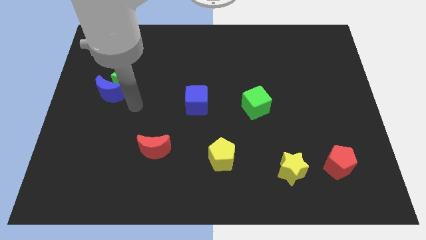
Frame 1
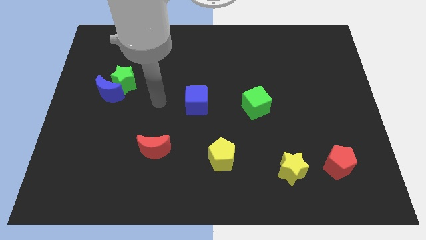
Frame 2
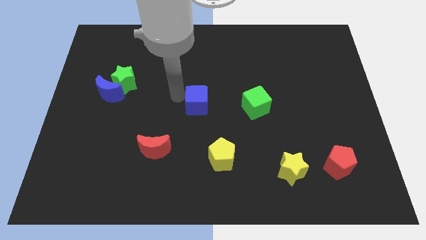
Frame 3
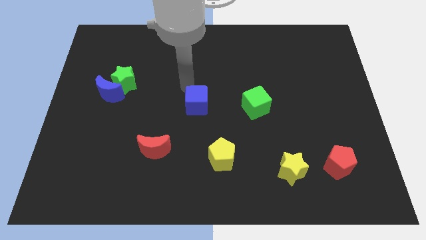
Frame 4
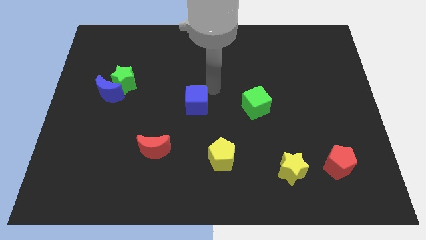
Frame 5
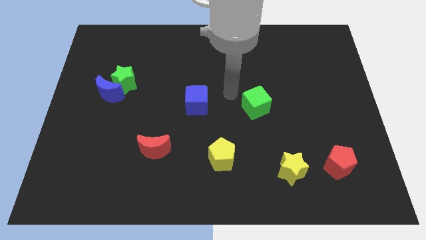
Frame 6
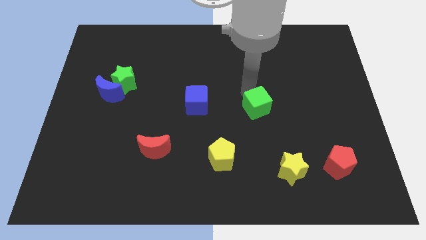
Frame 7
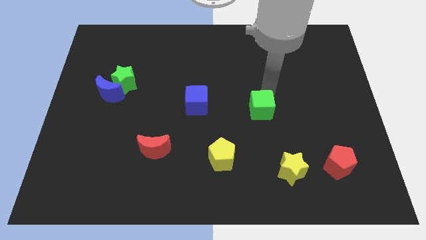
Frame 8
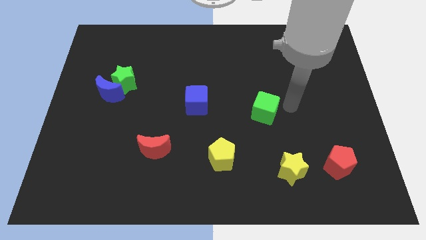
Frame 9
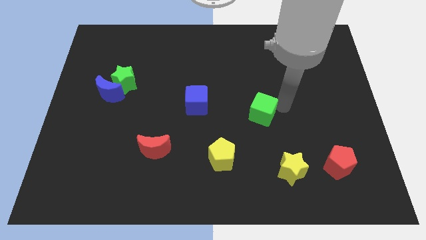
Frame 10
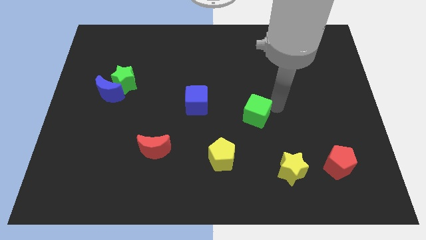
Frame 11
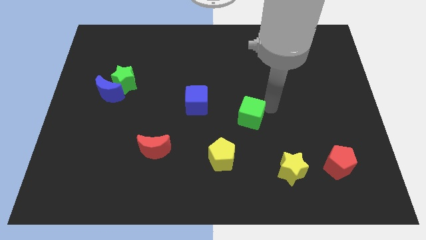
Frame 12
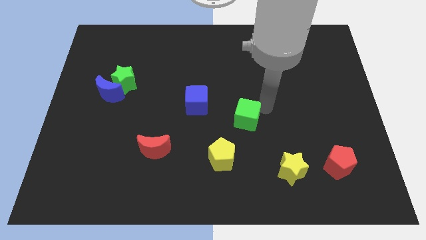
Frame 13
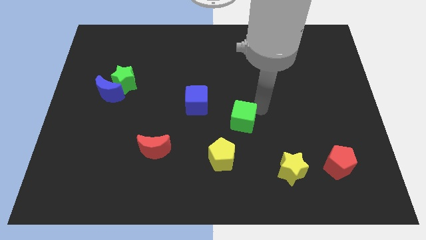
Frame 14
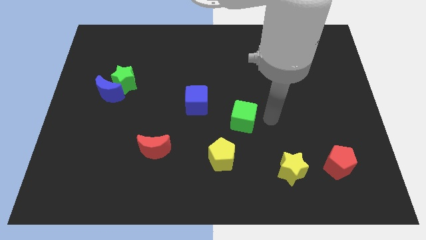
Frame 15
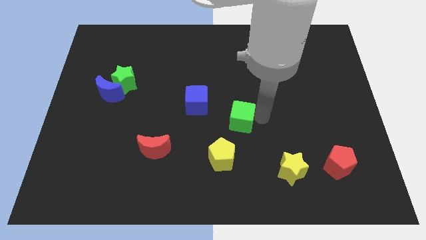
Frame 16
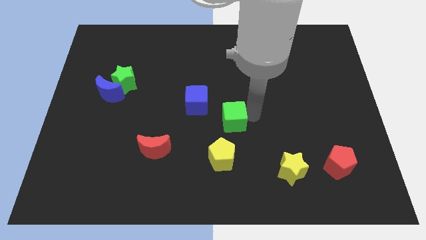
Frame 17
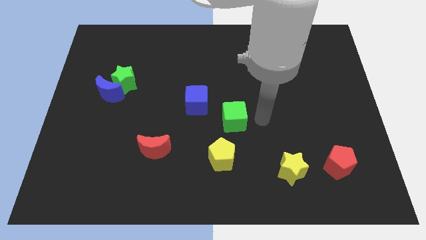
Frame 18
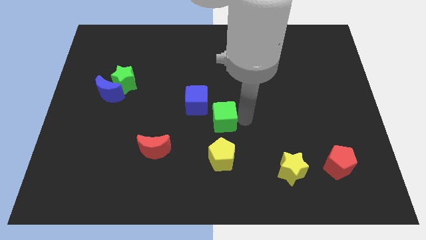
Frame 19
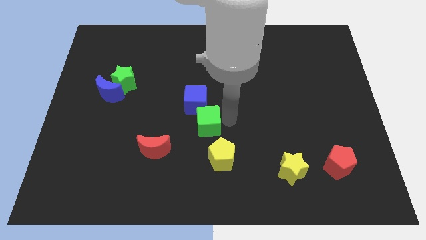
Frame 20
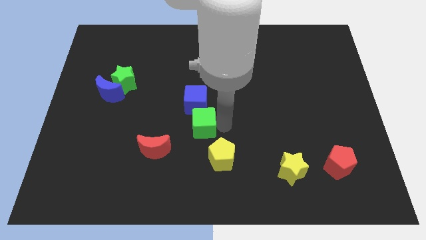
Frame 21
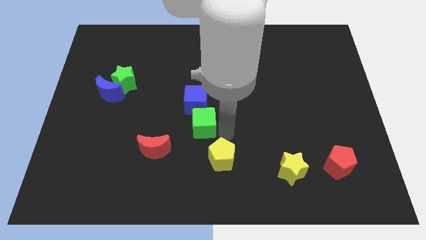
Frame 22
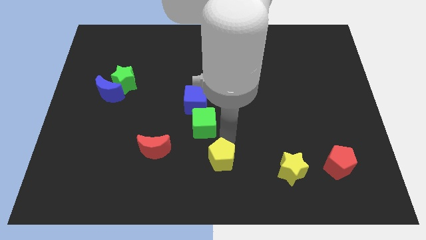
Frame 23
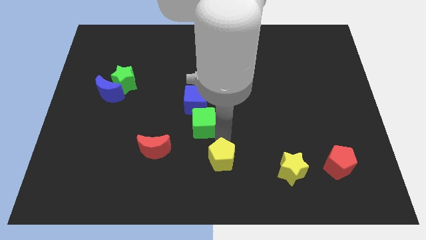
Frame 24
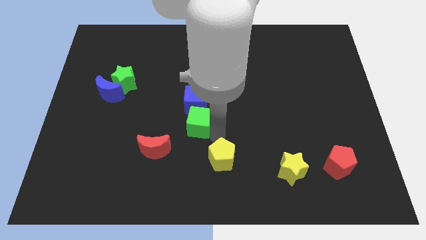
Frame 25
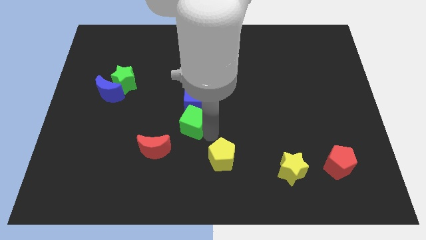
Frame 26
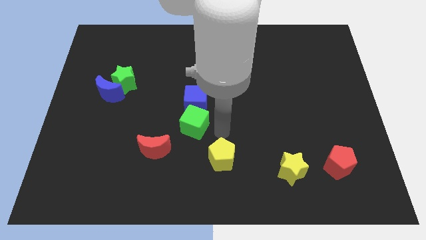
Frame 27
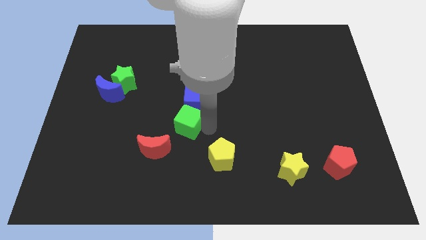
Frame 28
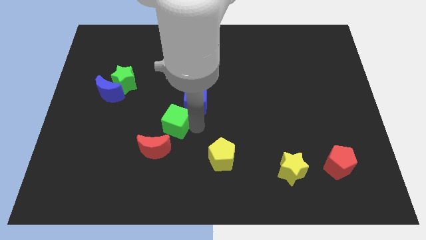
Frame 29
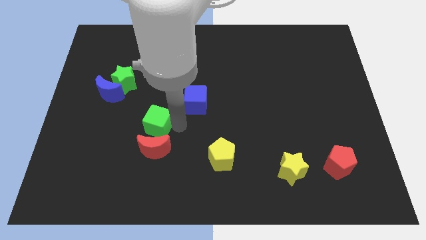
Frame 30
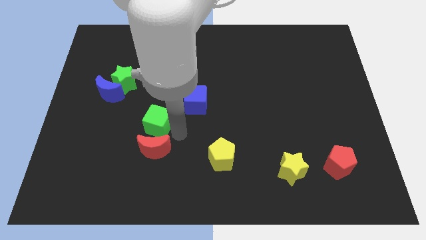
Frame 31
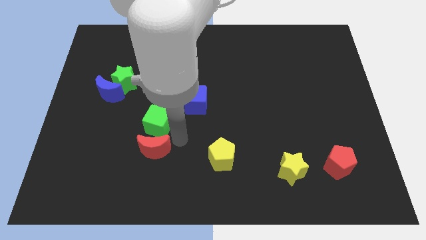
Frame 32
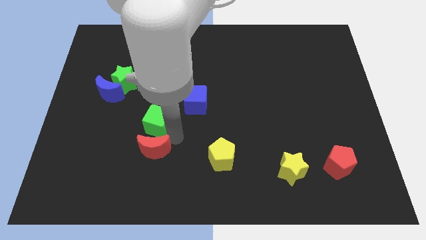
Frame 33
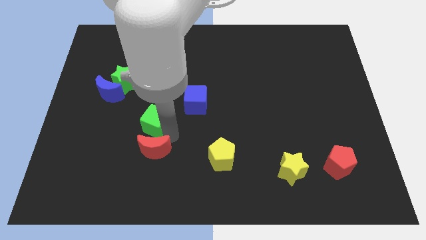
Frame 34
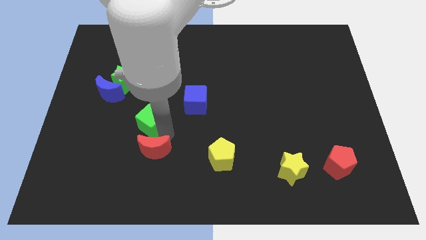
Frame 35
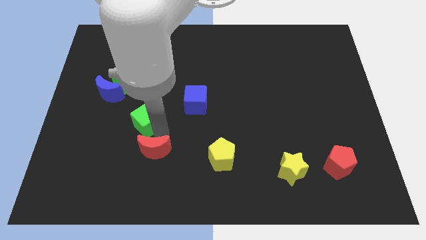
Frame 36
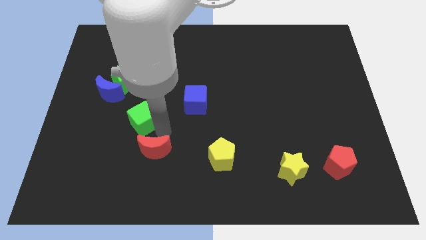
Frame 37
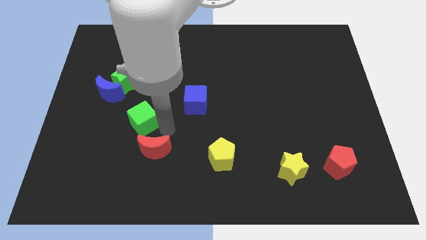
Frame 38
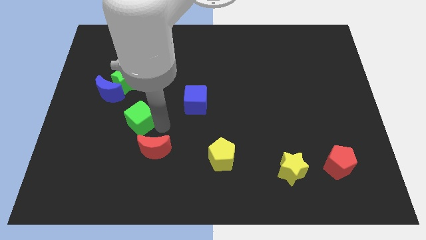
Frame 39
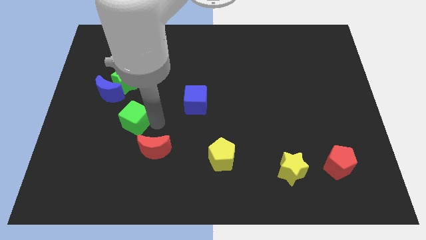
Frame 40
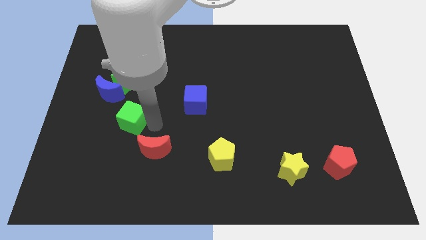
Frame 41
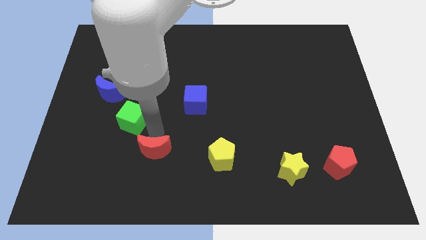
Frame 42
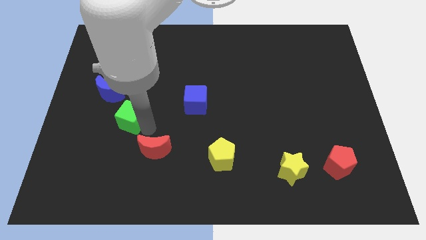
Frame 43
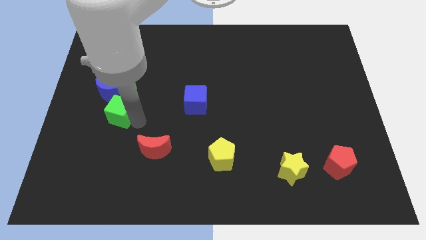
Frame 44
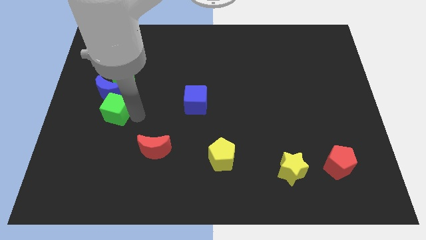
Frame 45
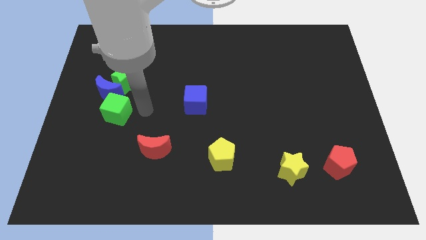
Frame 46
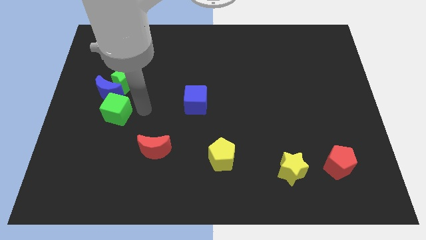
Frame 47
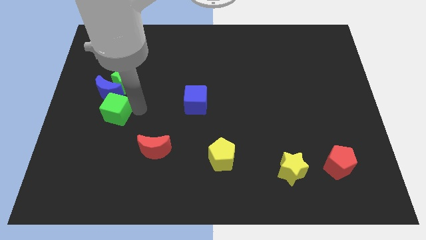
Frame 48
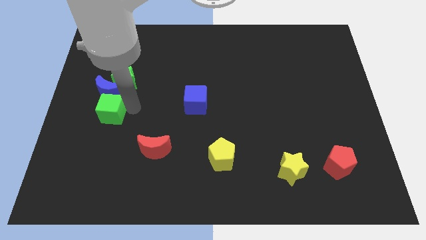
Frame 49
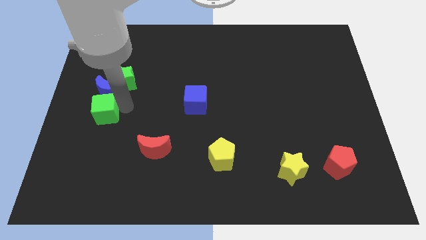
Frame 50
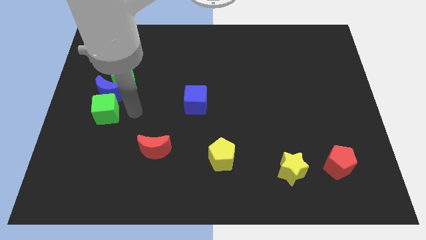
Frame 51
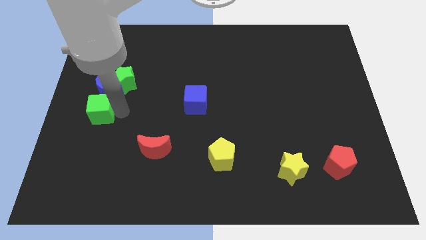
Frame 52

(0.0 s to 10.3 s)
move the green cube to the center left

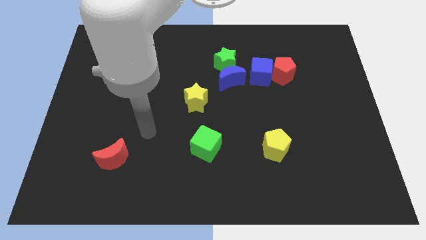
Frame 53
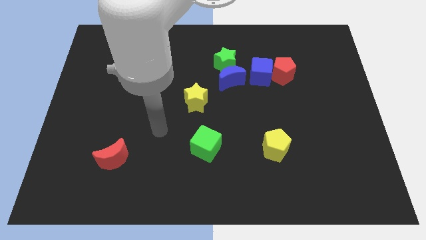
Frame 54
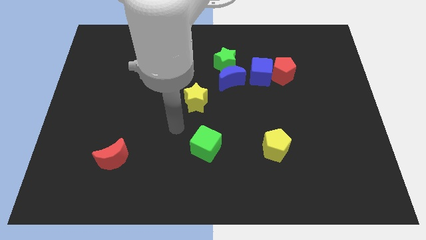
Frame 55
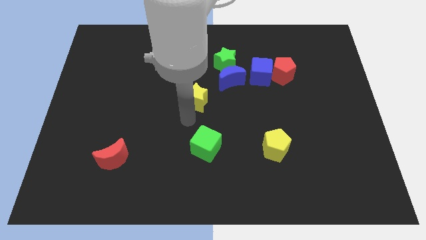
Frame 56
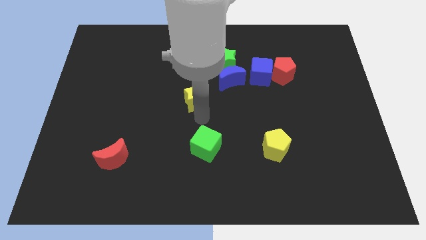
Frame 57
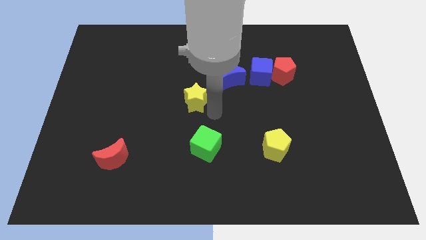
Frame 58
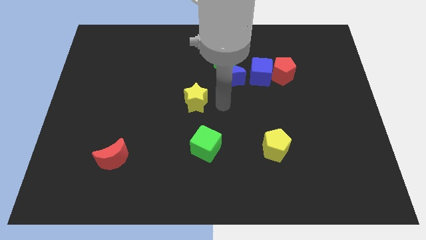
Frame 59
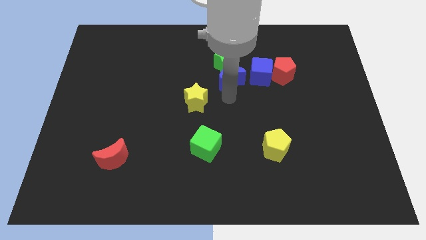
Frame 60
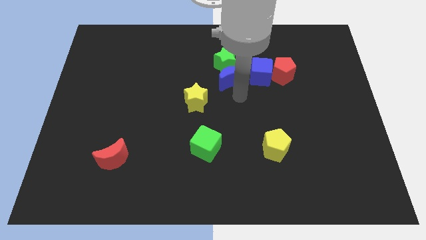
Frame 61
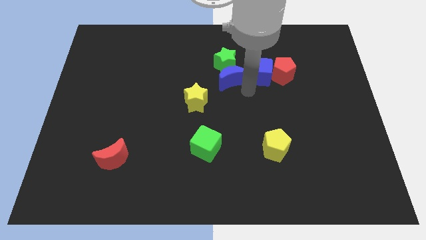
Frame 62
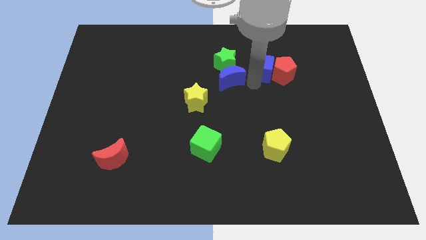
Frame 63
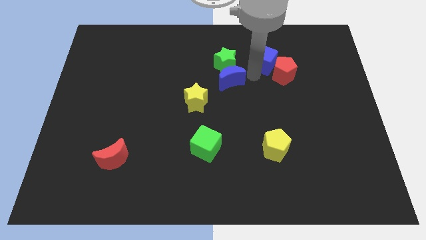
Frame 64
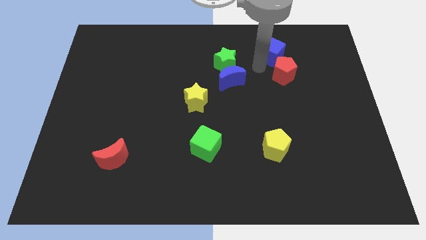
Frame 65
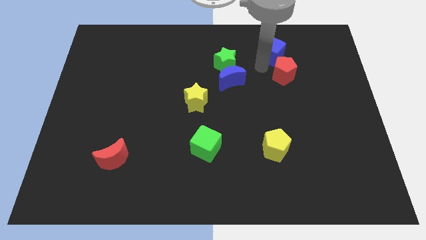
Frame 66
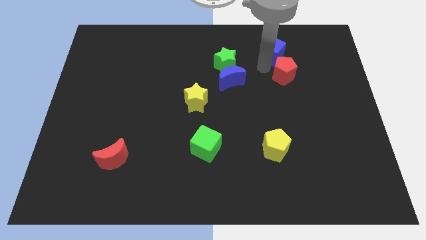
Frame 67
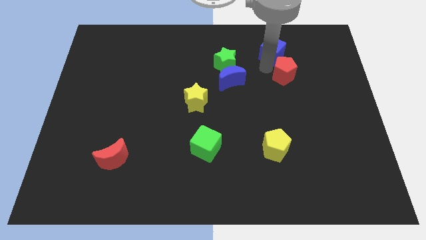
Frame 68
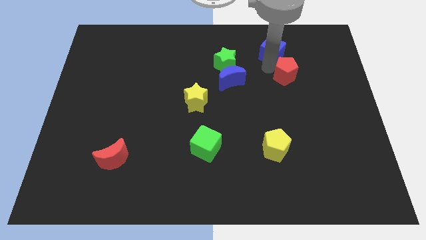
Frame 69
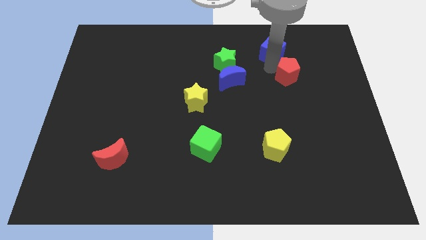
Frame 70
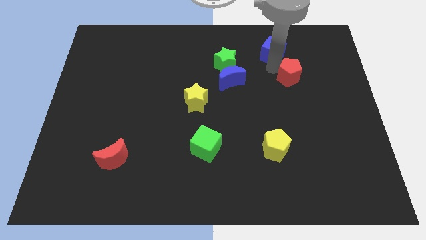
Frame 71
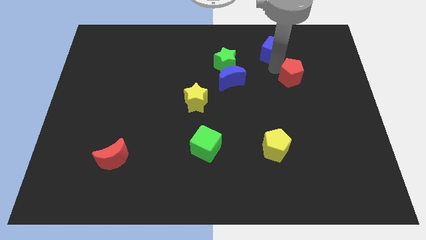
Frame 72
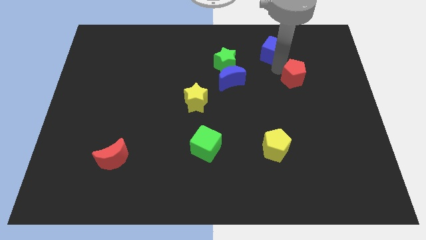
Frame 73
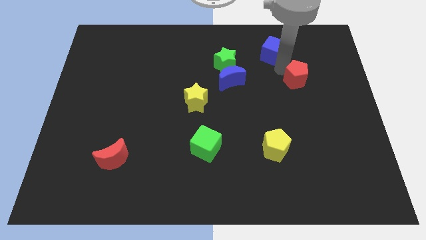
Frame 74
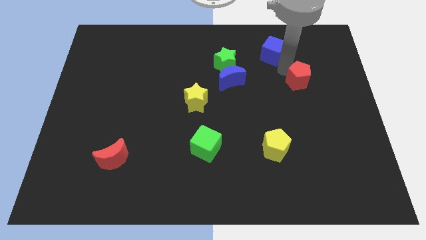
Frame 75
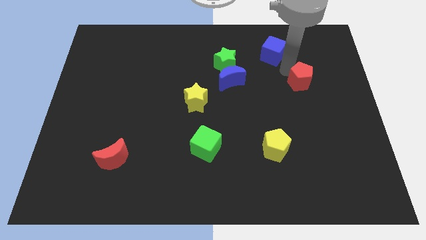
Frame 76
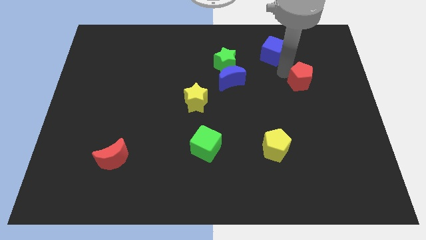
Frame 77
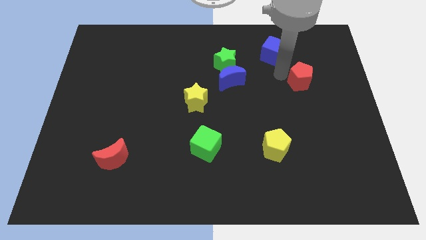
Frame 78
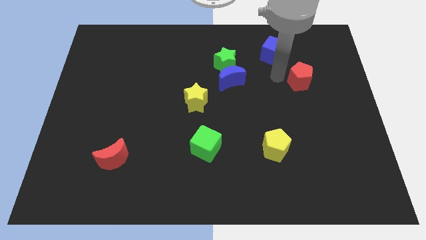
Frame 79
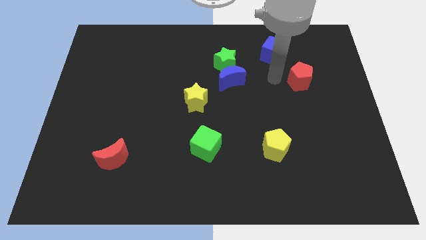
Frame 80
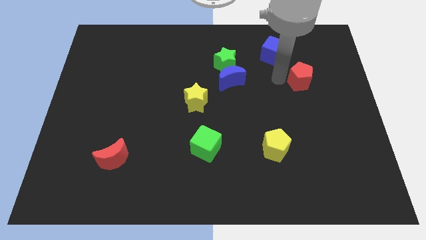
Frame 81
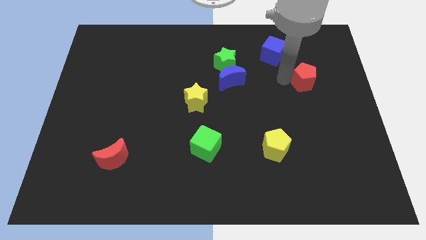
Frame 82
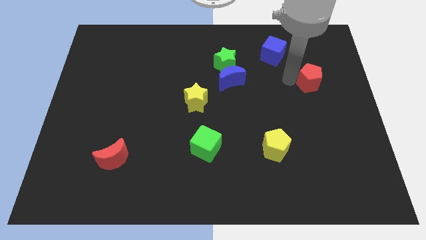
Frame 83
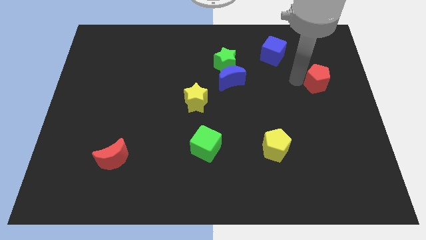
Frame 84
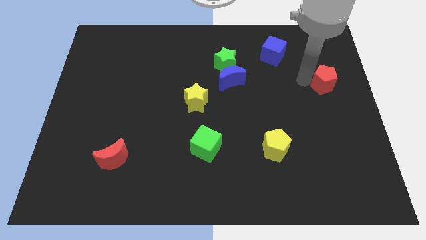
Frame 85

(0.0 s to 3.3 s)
slide the red pentagon to the right side of the board
